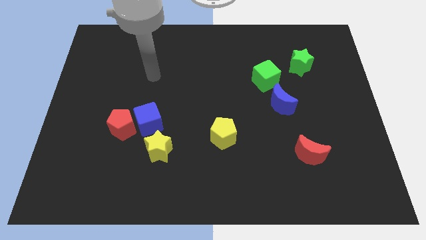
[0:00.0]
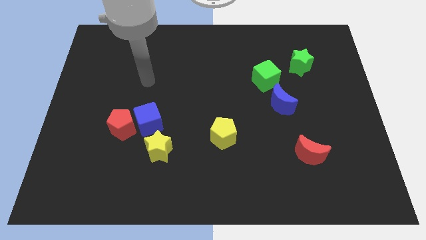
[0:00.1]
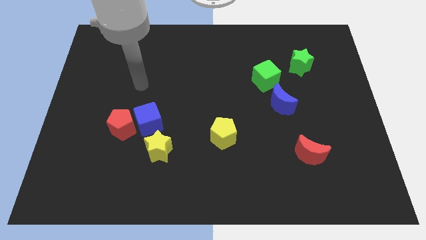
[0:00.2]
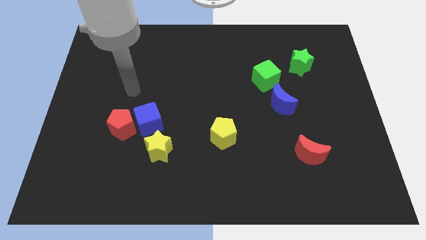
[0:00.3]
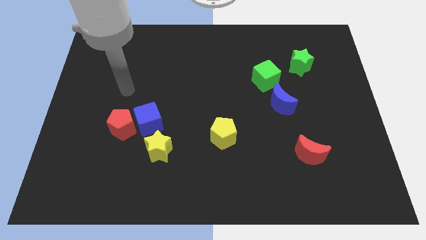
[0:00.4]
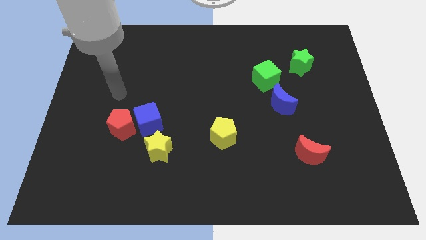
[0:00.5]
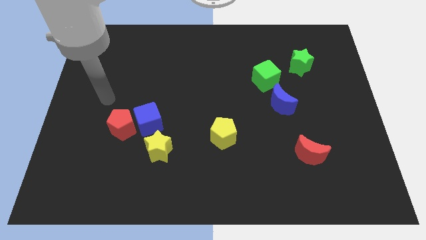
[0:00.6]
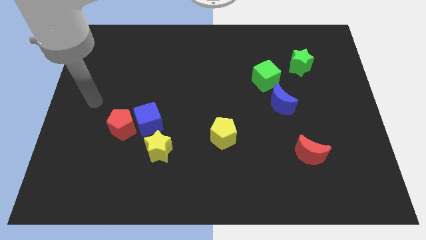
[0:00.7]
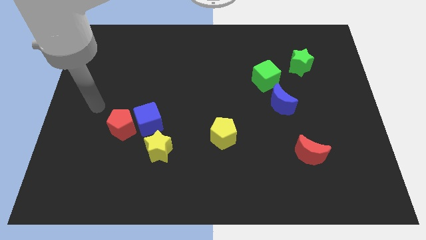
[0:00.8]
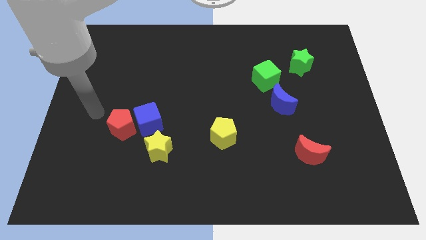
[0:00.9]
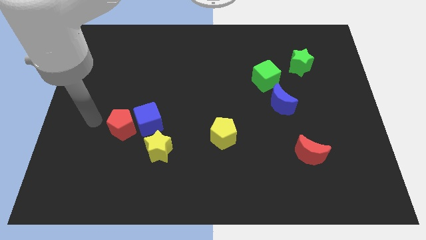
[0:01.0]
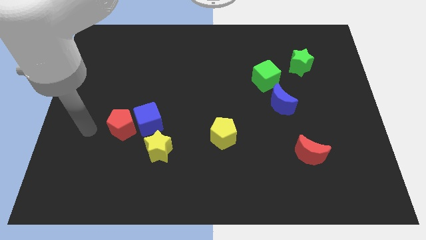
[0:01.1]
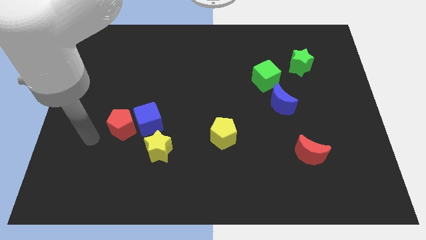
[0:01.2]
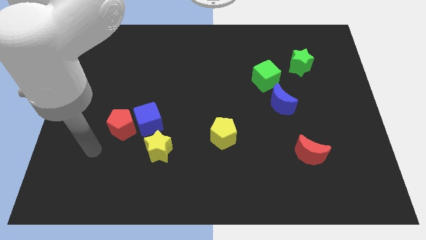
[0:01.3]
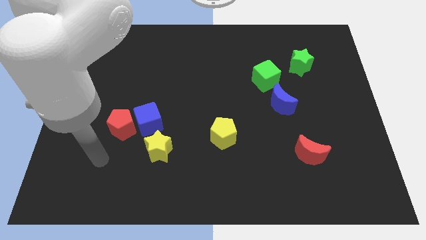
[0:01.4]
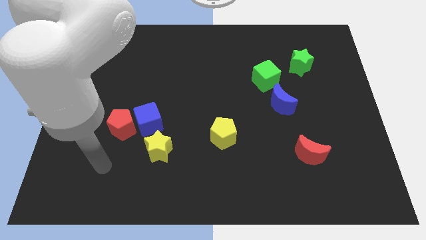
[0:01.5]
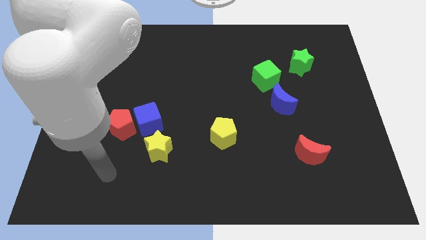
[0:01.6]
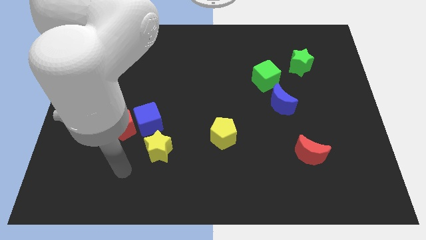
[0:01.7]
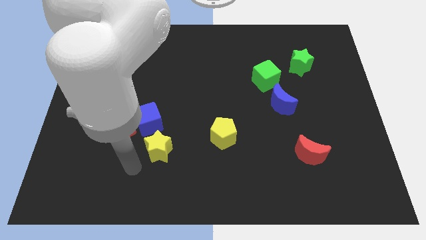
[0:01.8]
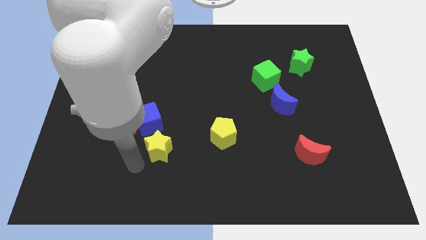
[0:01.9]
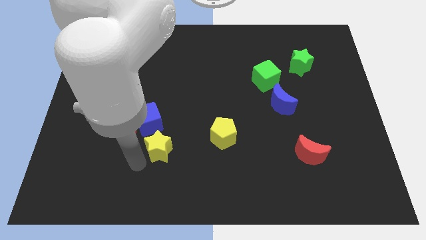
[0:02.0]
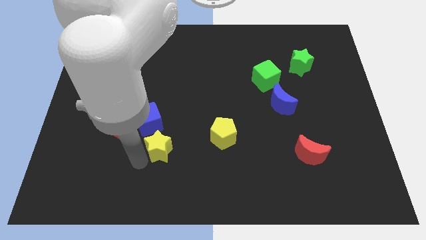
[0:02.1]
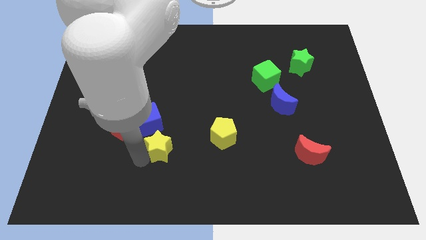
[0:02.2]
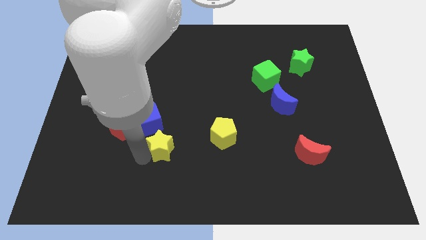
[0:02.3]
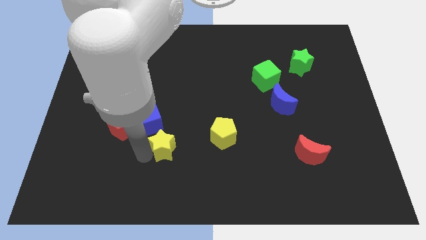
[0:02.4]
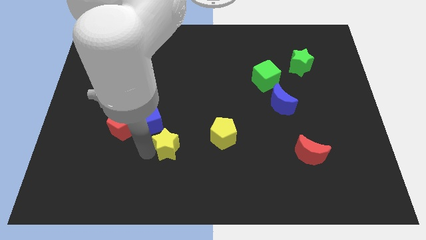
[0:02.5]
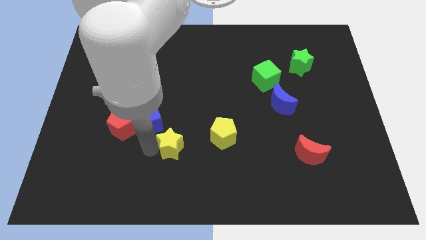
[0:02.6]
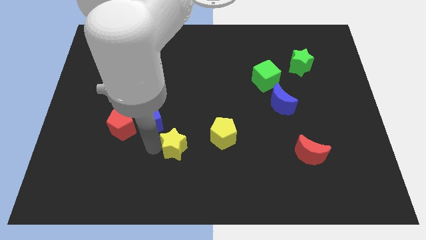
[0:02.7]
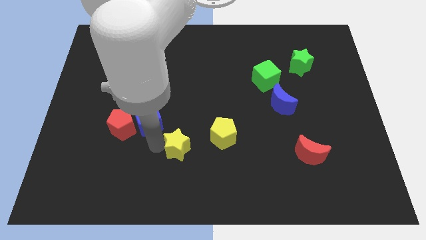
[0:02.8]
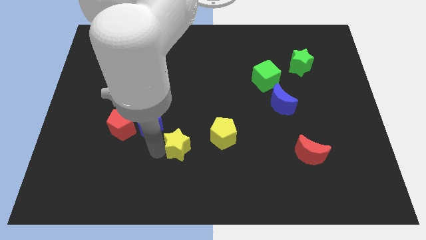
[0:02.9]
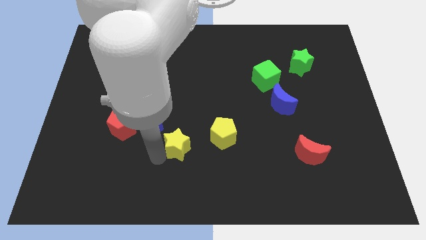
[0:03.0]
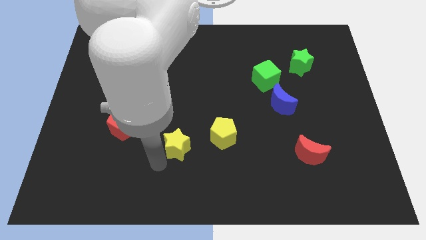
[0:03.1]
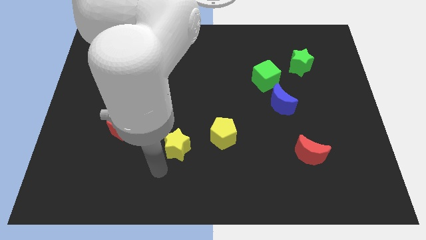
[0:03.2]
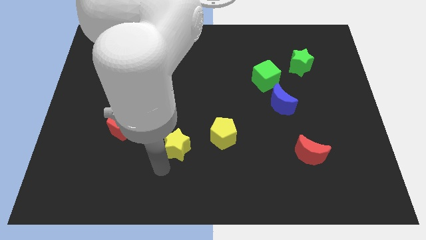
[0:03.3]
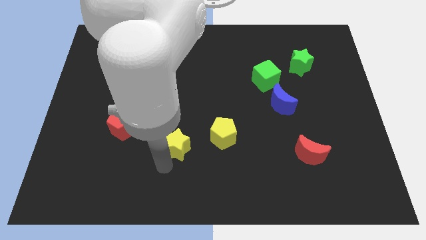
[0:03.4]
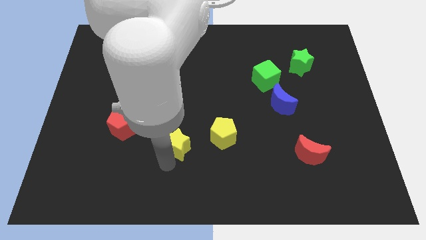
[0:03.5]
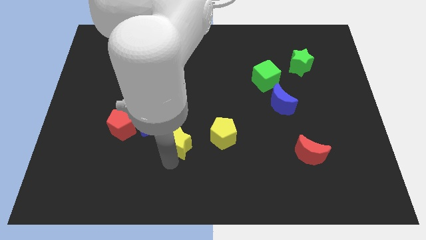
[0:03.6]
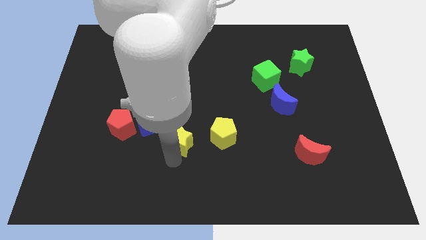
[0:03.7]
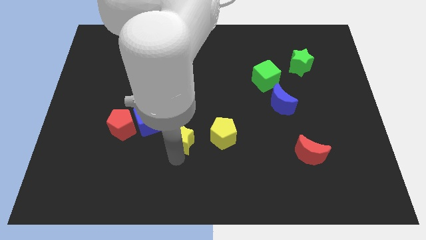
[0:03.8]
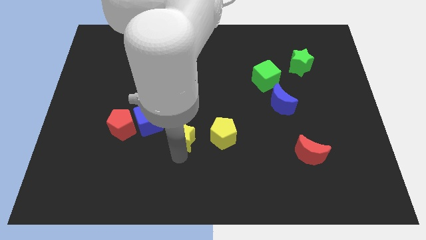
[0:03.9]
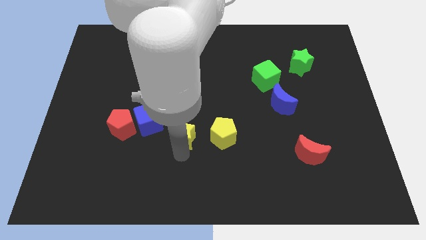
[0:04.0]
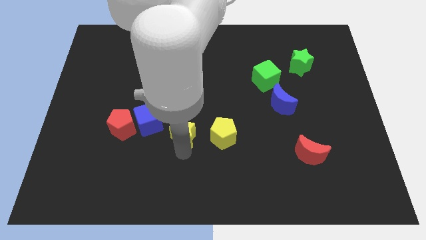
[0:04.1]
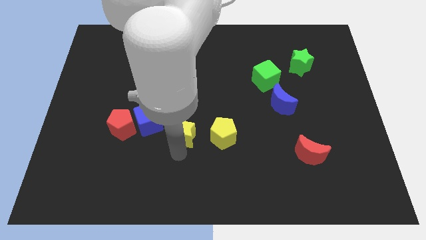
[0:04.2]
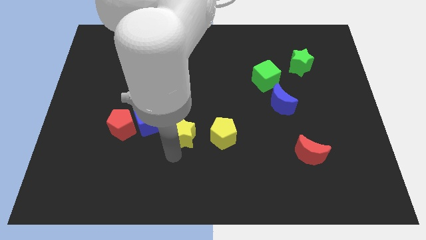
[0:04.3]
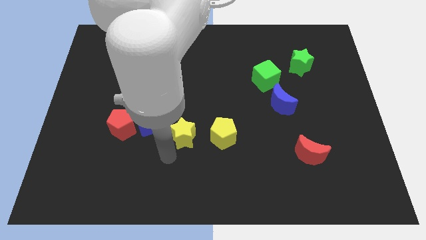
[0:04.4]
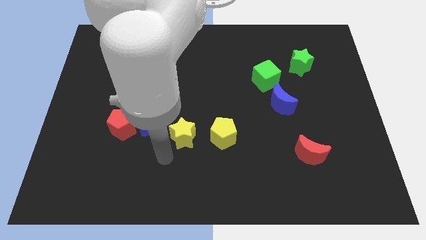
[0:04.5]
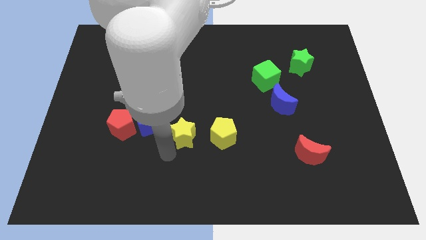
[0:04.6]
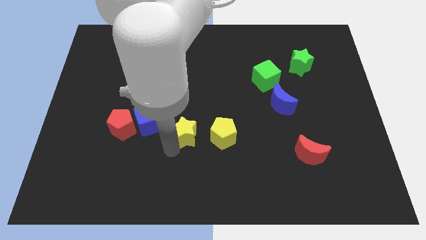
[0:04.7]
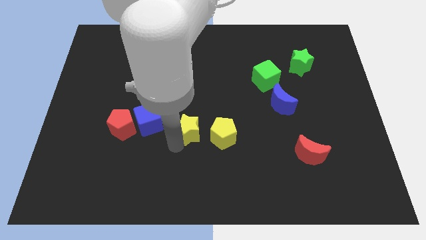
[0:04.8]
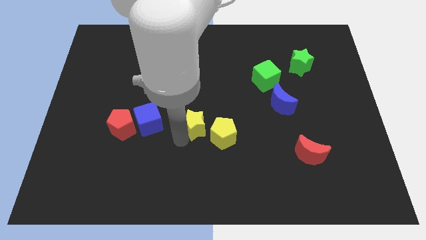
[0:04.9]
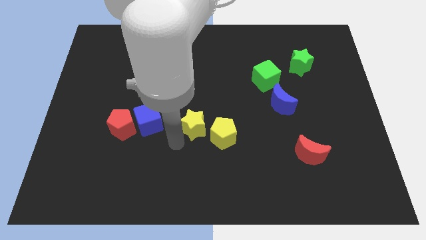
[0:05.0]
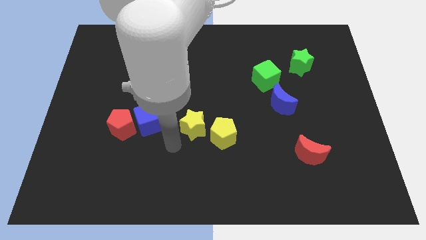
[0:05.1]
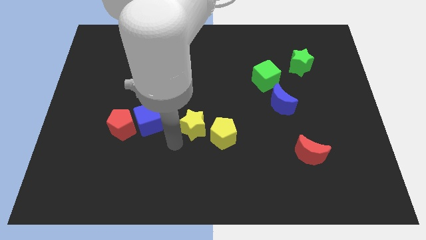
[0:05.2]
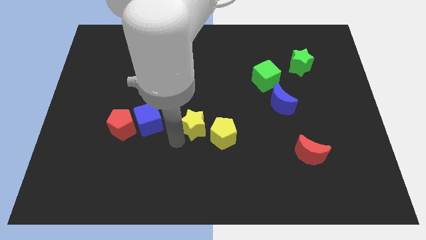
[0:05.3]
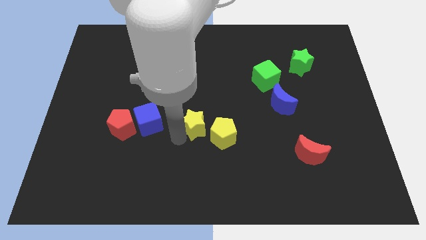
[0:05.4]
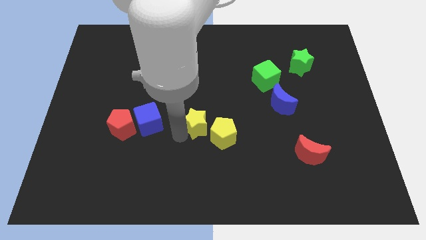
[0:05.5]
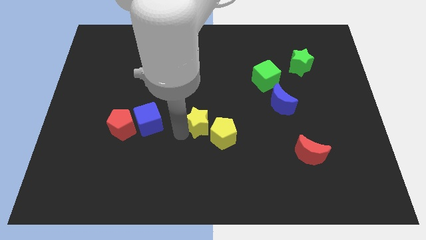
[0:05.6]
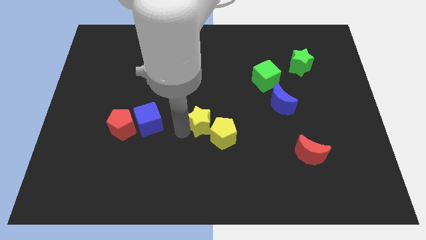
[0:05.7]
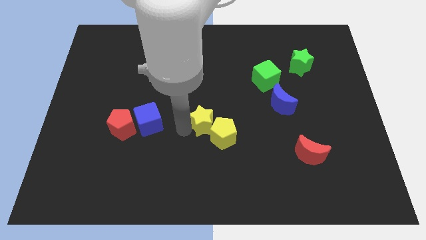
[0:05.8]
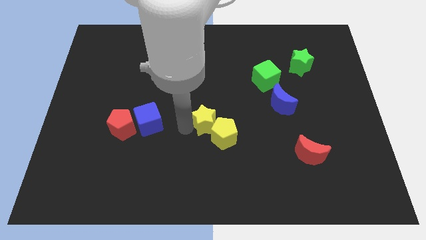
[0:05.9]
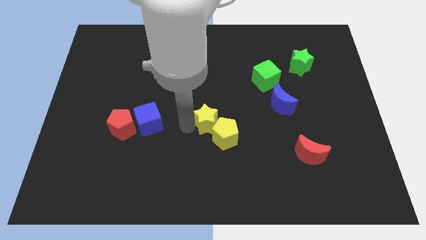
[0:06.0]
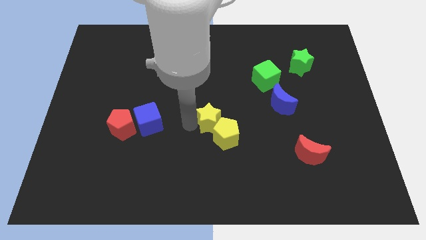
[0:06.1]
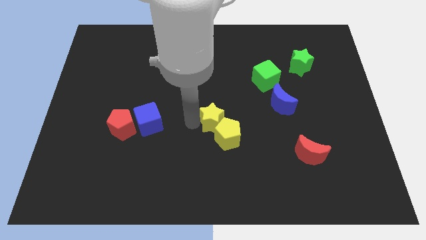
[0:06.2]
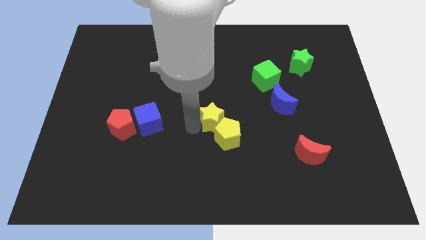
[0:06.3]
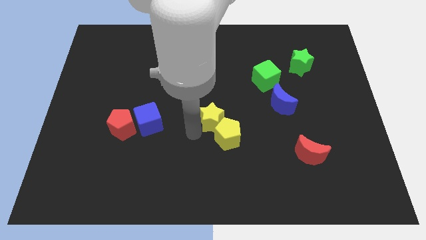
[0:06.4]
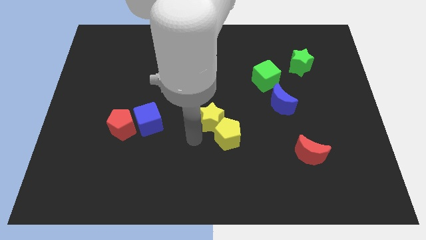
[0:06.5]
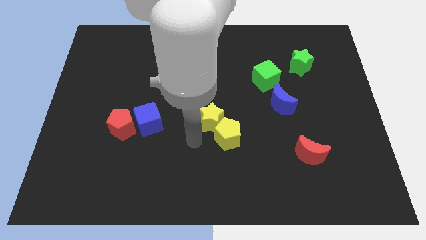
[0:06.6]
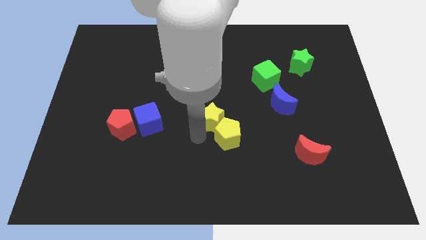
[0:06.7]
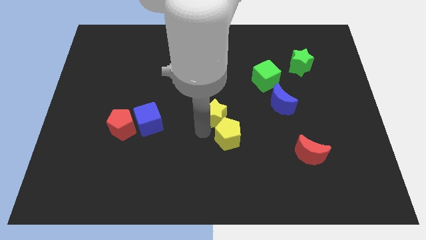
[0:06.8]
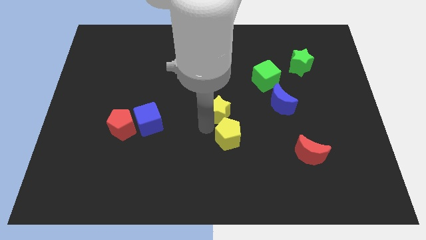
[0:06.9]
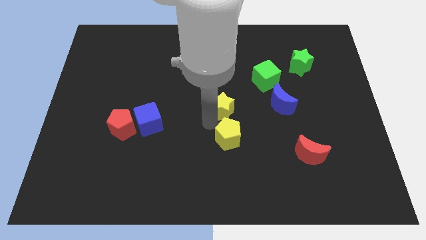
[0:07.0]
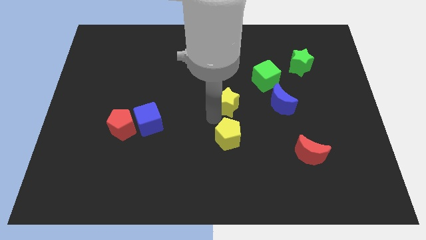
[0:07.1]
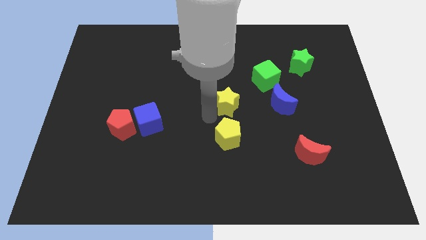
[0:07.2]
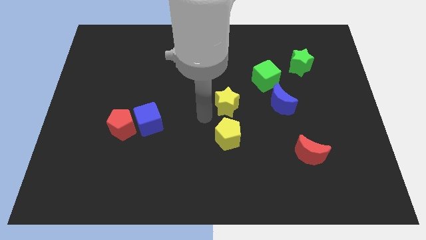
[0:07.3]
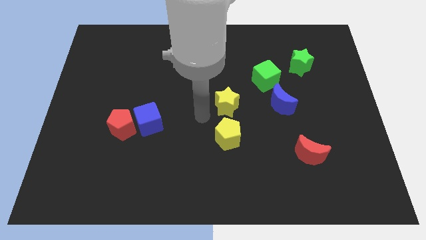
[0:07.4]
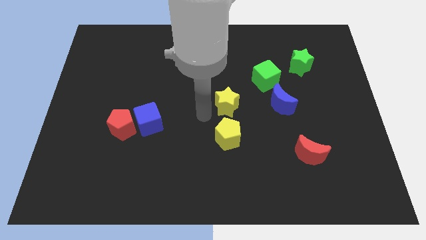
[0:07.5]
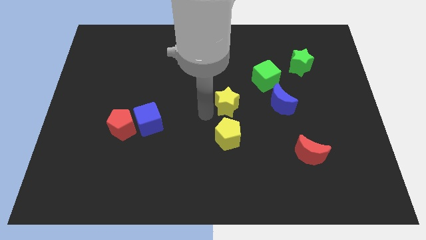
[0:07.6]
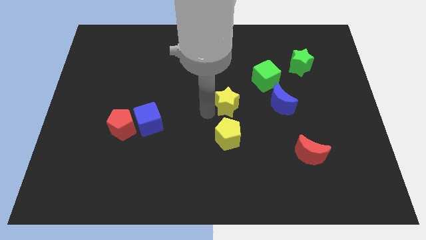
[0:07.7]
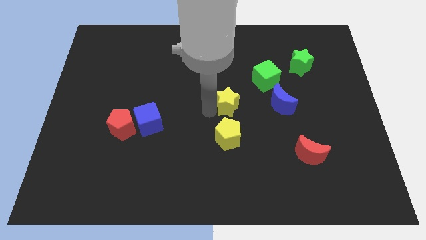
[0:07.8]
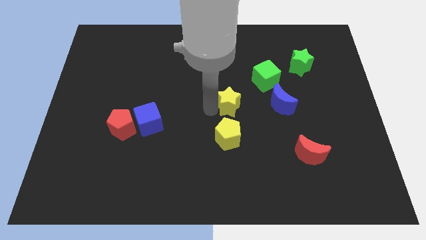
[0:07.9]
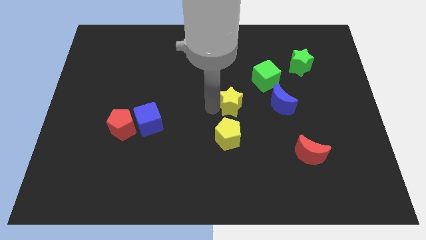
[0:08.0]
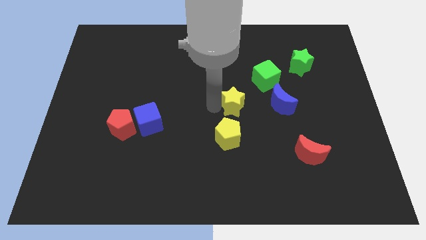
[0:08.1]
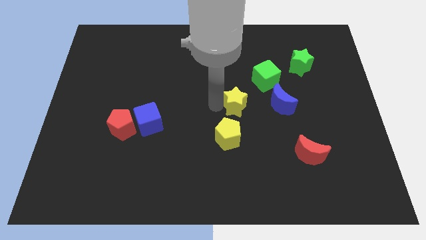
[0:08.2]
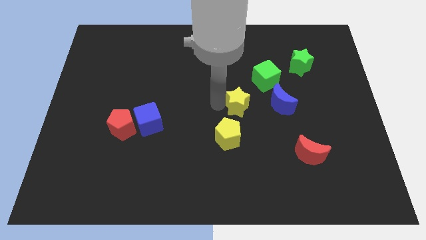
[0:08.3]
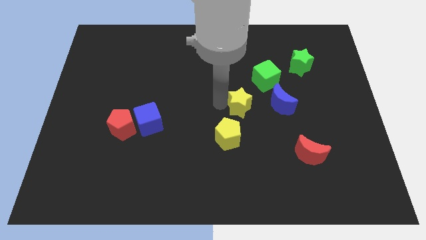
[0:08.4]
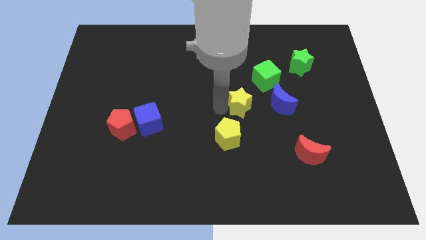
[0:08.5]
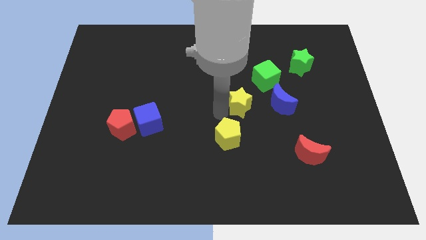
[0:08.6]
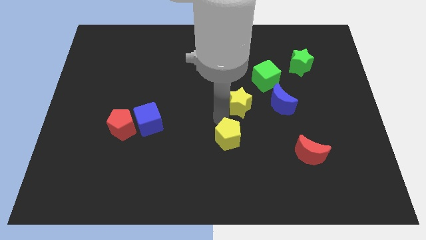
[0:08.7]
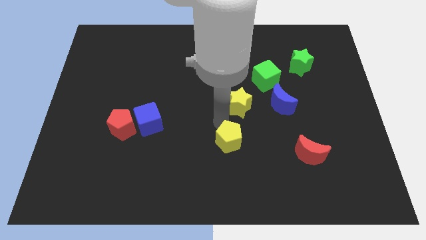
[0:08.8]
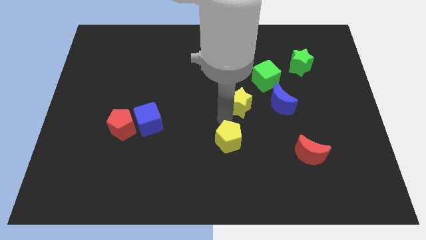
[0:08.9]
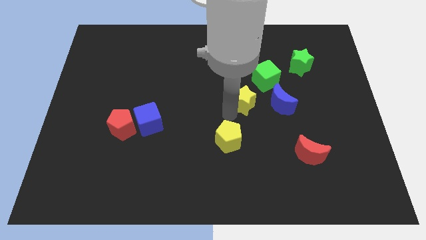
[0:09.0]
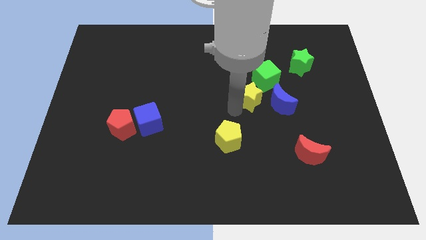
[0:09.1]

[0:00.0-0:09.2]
put the yellow star to the top left of the blue moon
